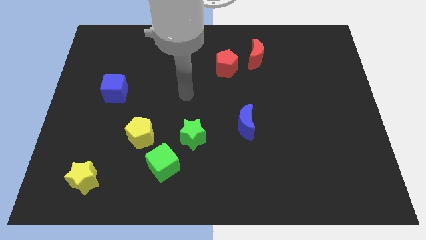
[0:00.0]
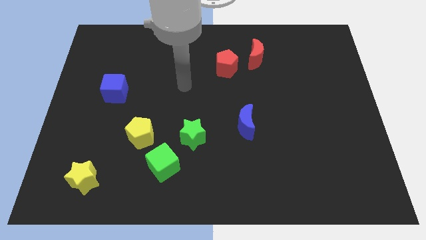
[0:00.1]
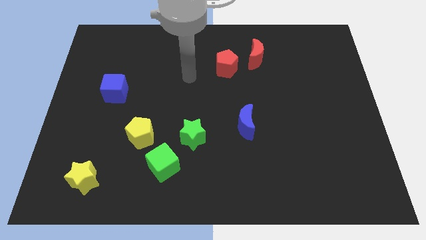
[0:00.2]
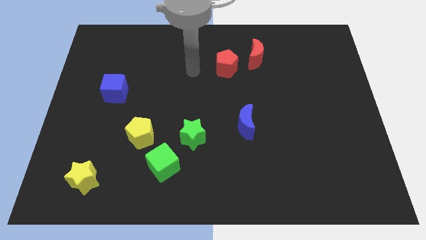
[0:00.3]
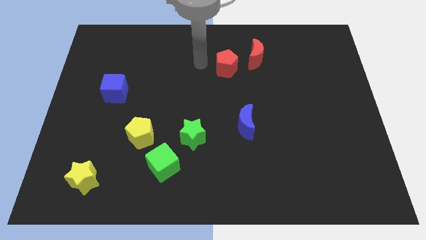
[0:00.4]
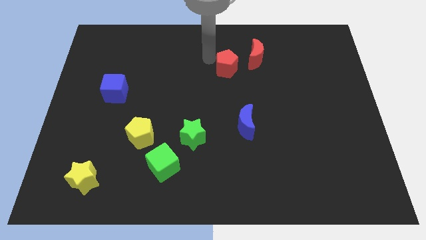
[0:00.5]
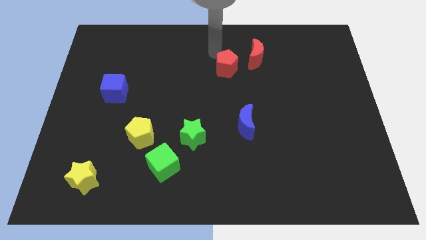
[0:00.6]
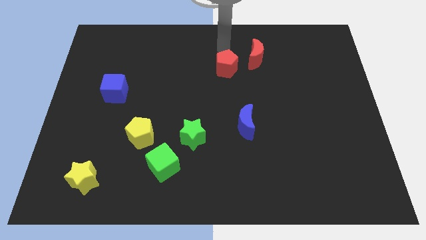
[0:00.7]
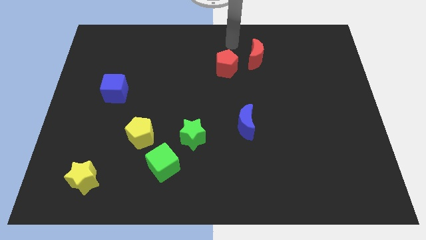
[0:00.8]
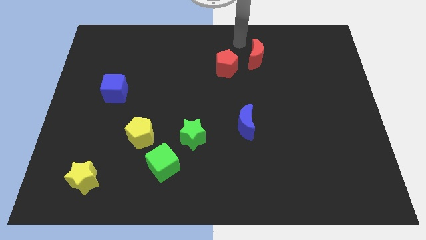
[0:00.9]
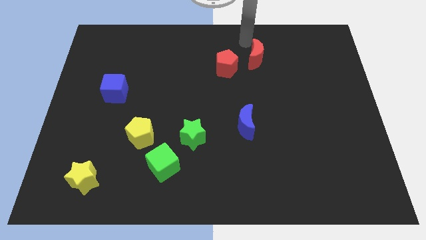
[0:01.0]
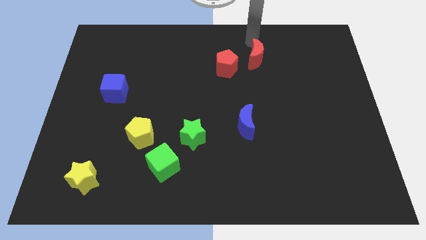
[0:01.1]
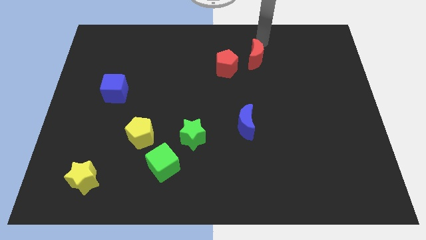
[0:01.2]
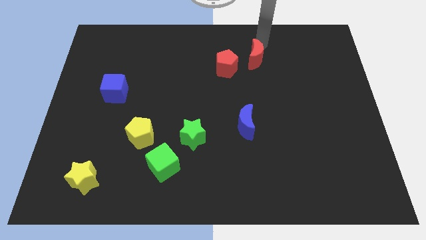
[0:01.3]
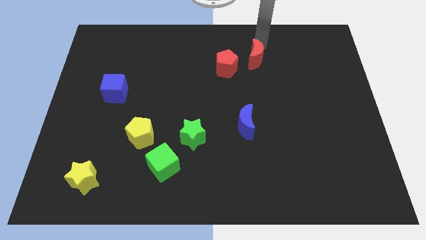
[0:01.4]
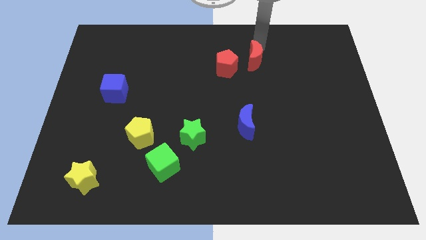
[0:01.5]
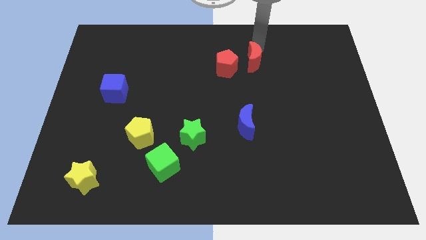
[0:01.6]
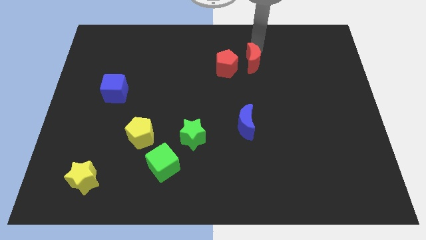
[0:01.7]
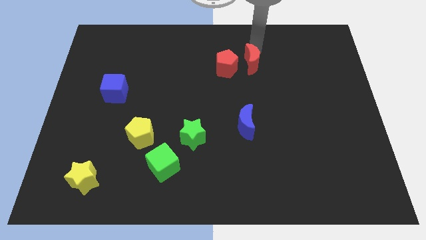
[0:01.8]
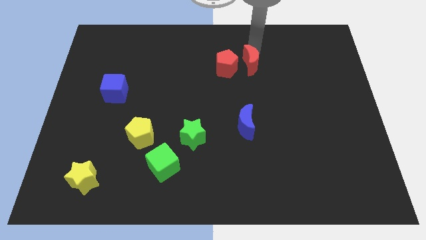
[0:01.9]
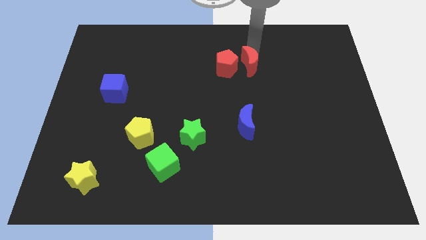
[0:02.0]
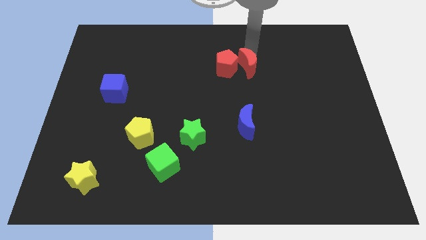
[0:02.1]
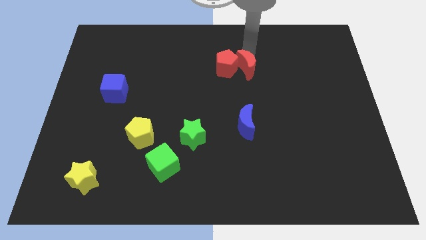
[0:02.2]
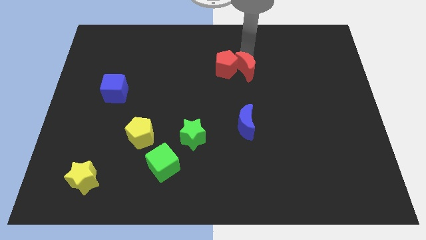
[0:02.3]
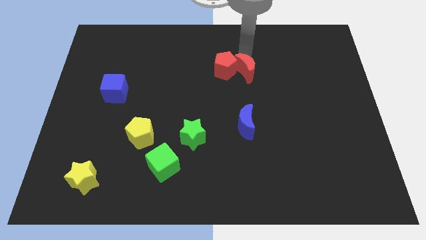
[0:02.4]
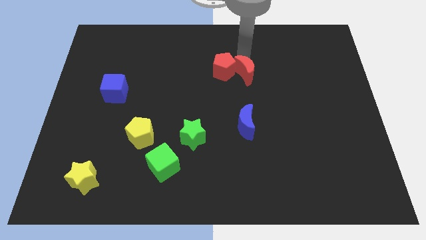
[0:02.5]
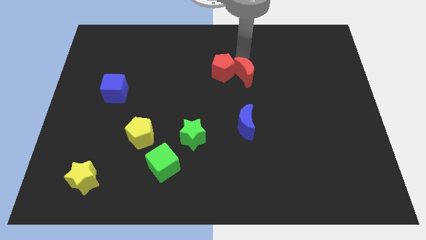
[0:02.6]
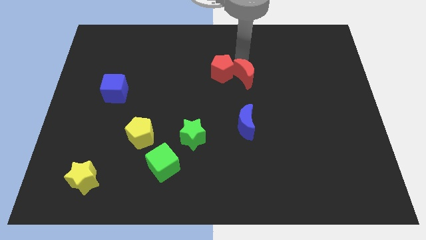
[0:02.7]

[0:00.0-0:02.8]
slightly move the red moon downwards and to the left

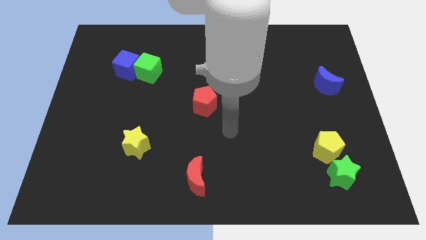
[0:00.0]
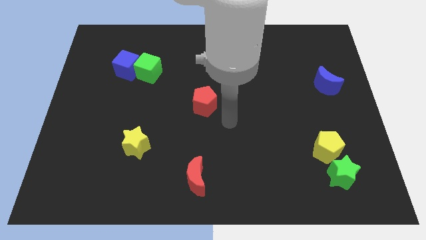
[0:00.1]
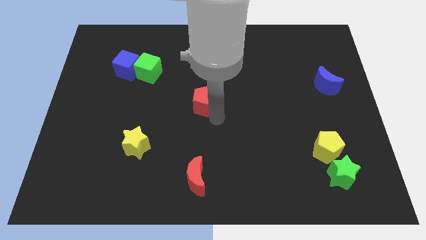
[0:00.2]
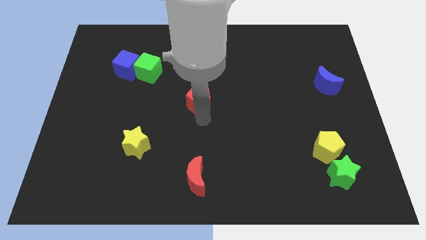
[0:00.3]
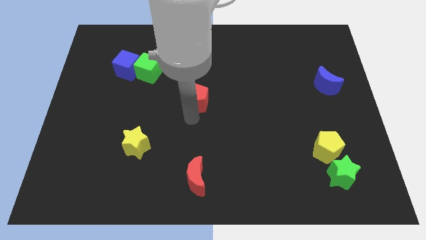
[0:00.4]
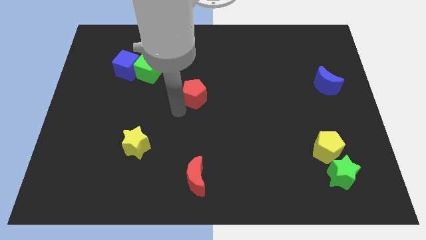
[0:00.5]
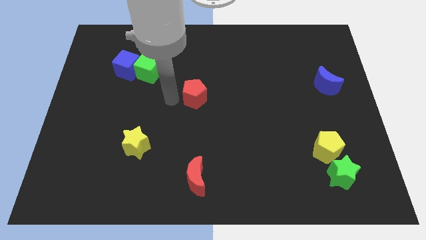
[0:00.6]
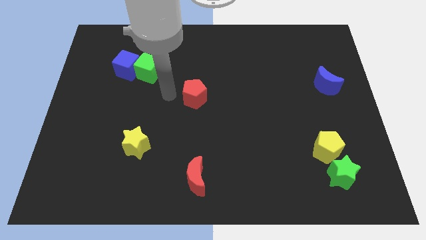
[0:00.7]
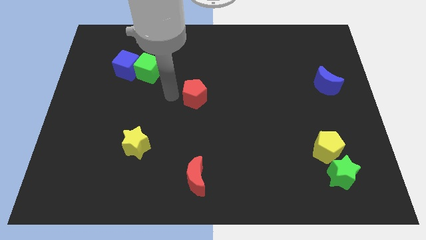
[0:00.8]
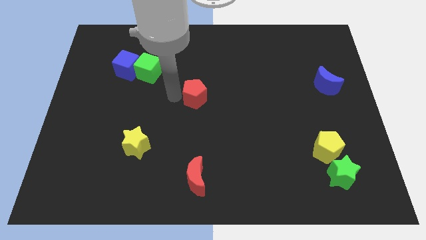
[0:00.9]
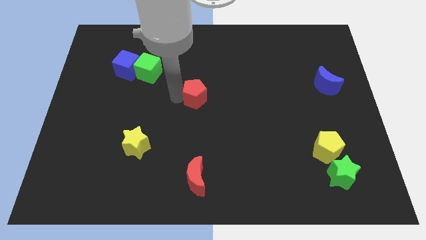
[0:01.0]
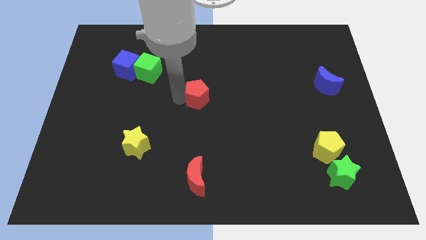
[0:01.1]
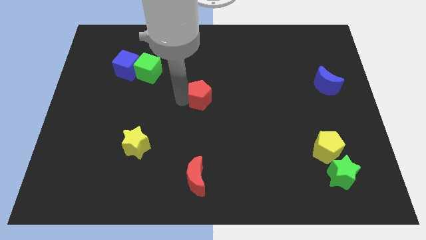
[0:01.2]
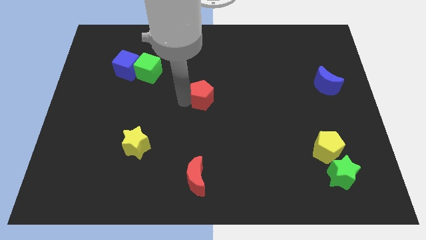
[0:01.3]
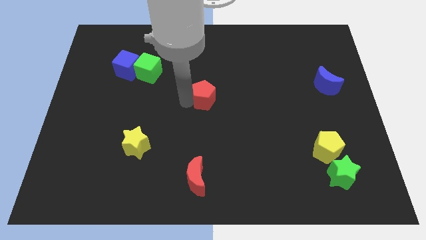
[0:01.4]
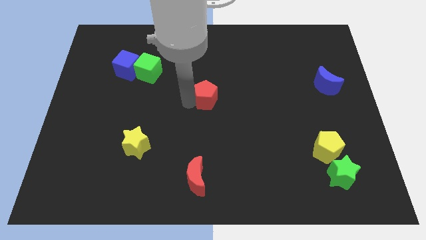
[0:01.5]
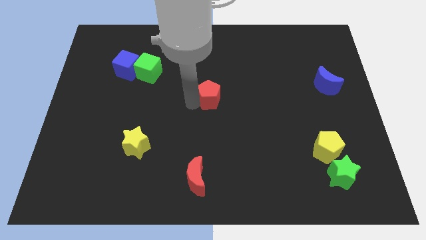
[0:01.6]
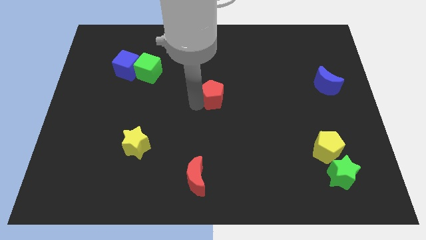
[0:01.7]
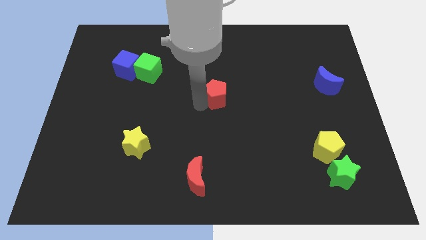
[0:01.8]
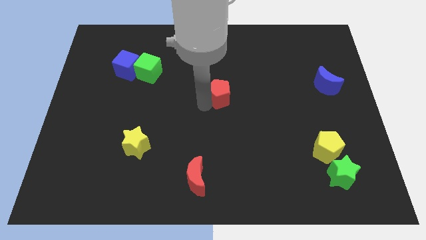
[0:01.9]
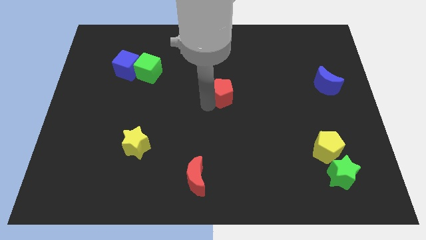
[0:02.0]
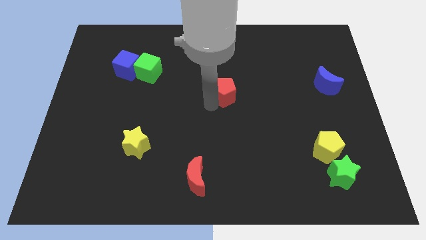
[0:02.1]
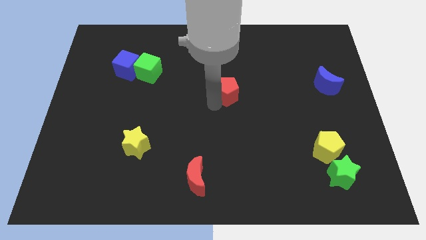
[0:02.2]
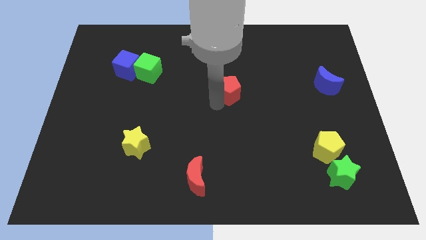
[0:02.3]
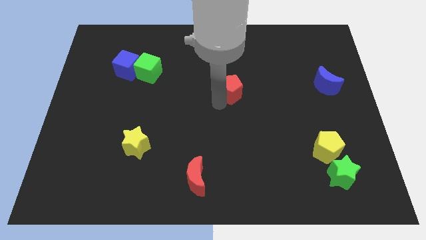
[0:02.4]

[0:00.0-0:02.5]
slightly move the red pentagon up and to the right

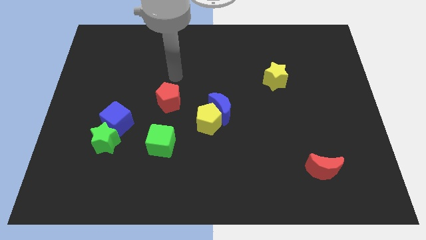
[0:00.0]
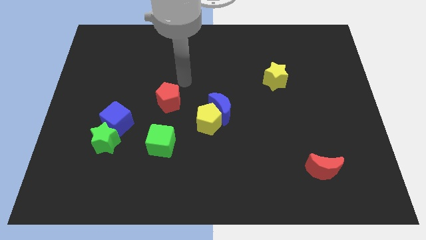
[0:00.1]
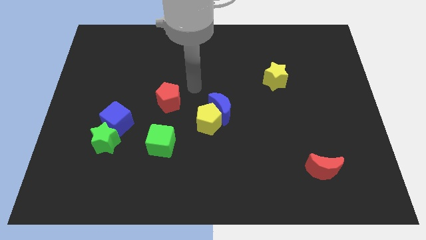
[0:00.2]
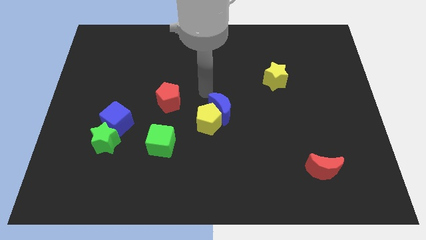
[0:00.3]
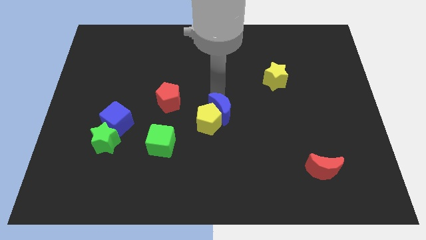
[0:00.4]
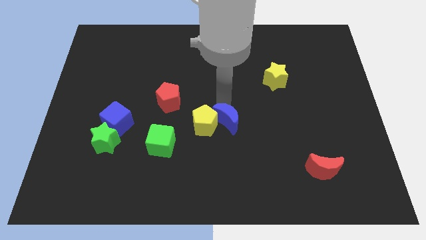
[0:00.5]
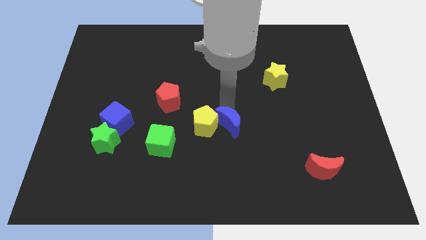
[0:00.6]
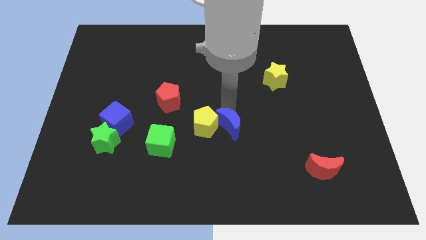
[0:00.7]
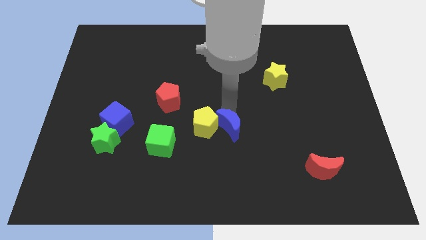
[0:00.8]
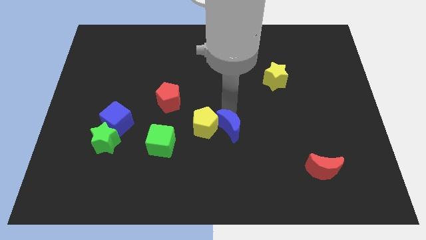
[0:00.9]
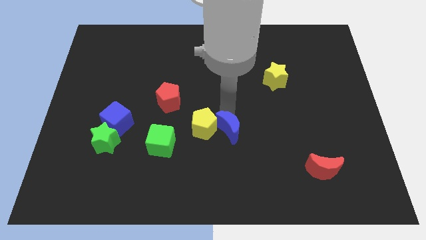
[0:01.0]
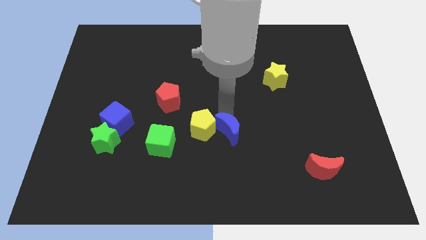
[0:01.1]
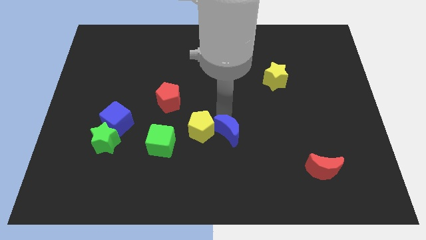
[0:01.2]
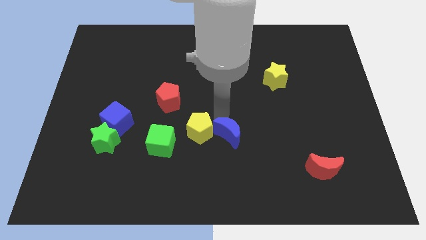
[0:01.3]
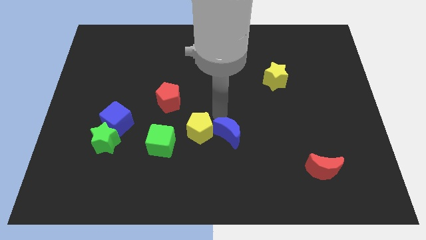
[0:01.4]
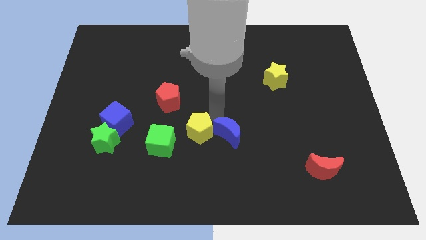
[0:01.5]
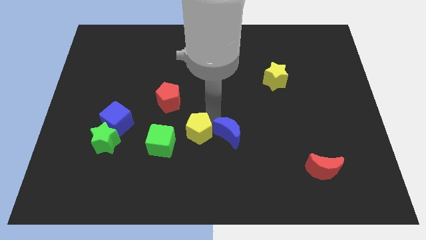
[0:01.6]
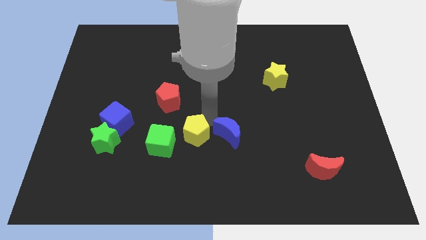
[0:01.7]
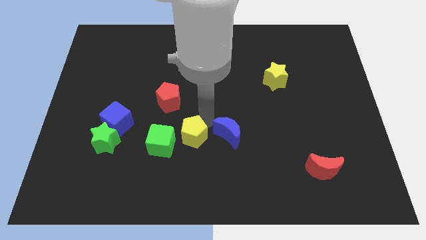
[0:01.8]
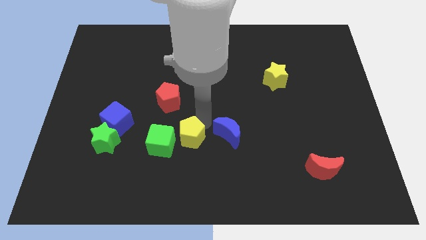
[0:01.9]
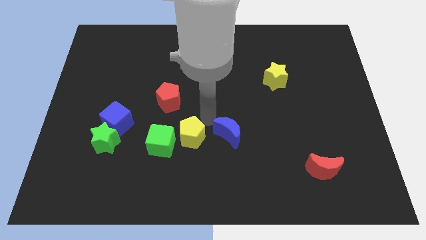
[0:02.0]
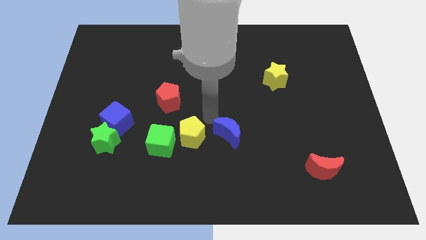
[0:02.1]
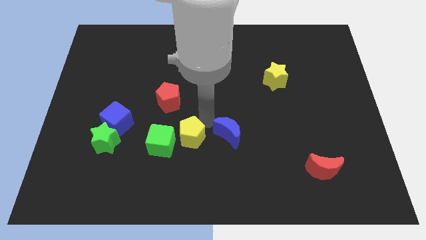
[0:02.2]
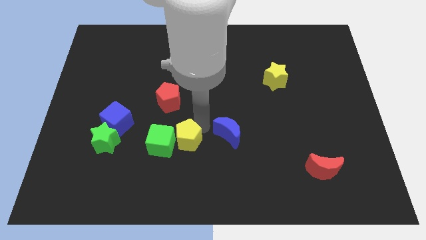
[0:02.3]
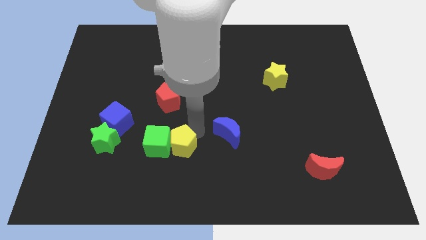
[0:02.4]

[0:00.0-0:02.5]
slightly push the yellow pentagon down and left diagonally

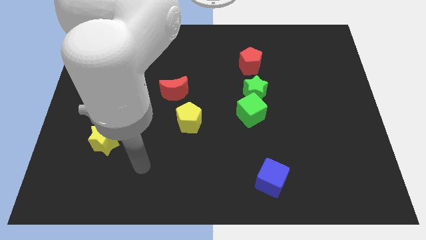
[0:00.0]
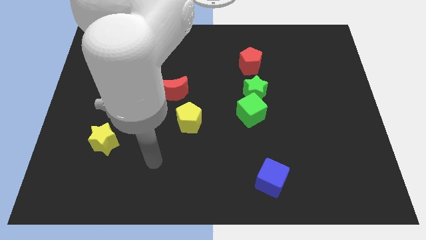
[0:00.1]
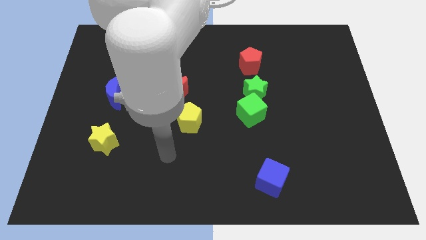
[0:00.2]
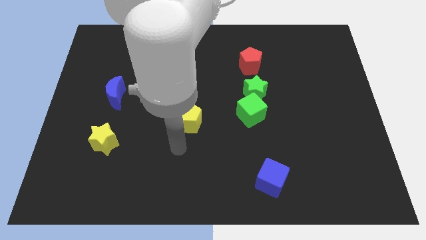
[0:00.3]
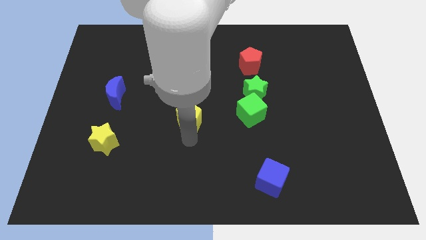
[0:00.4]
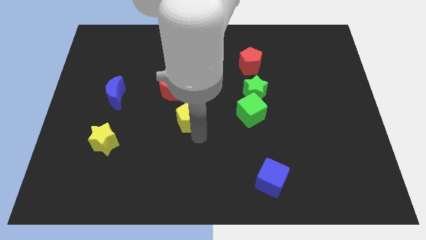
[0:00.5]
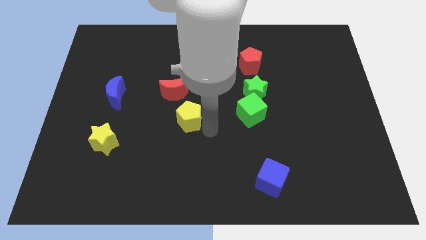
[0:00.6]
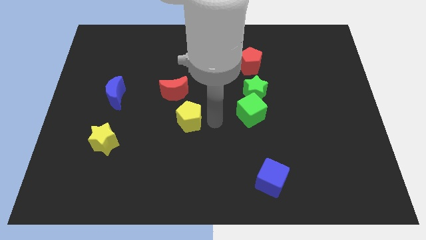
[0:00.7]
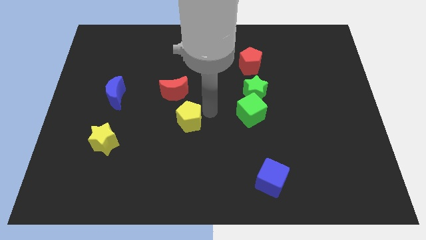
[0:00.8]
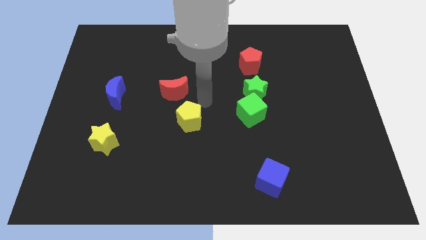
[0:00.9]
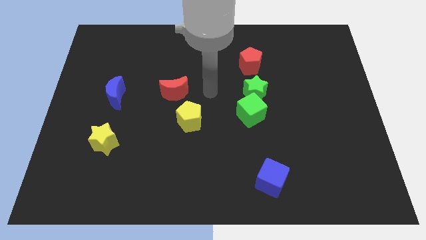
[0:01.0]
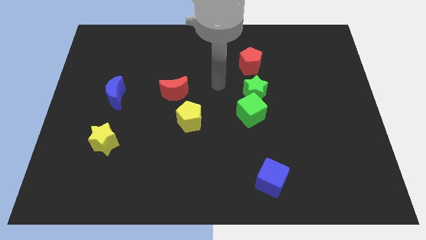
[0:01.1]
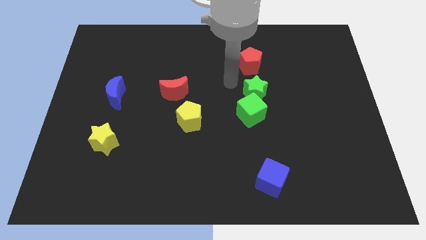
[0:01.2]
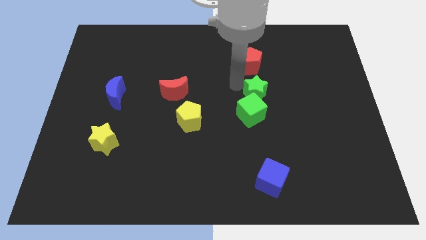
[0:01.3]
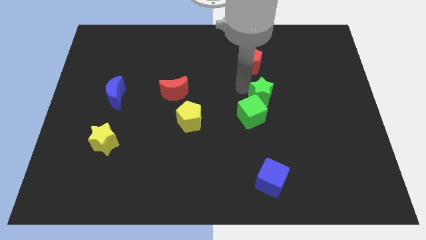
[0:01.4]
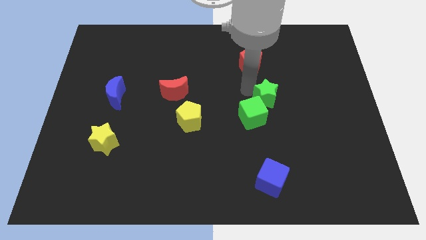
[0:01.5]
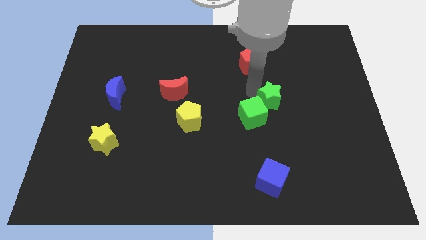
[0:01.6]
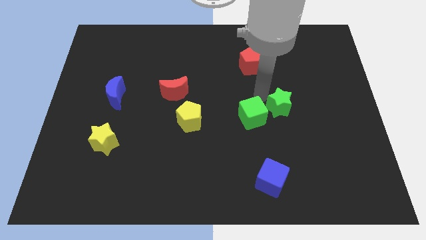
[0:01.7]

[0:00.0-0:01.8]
slightly push the green star down and to the right
